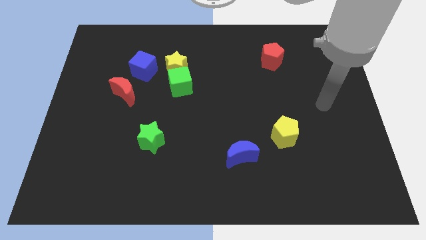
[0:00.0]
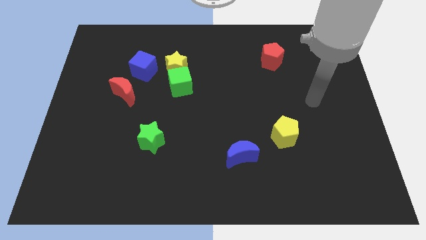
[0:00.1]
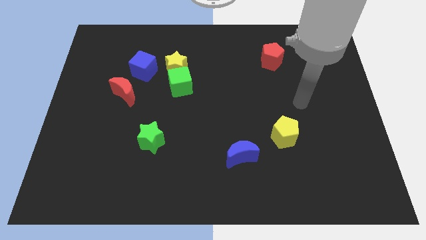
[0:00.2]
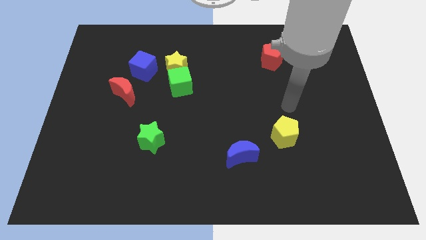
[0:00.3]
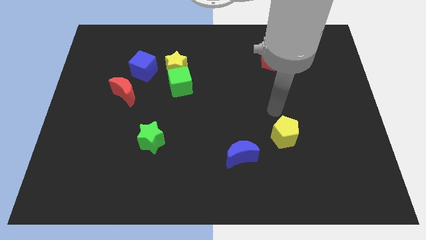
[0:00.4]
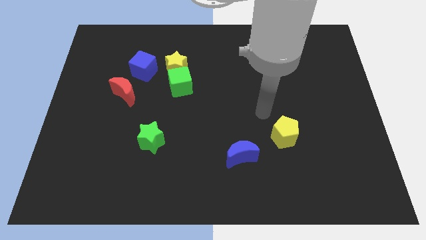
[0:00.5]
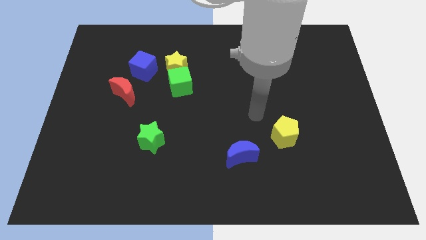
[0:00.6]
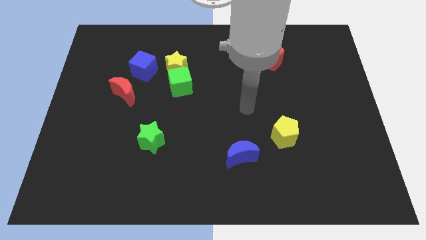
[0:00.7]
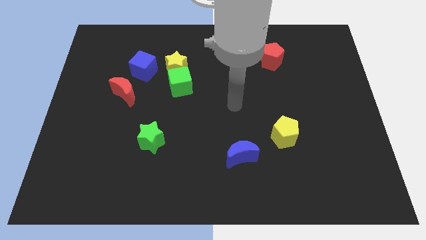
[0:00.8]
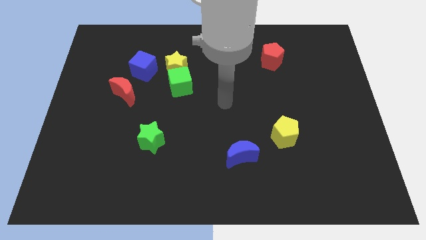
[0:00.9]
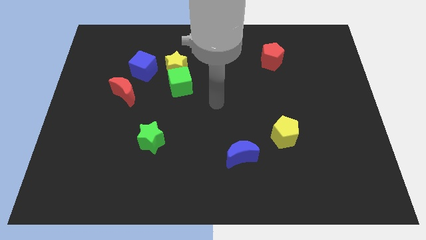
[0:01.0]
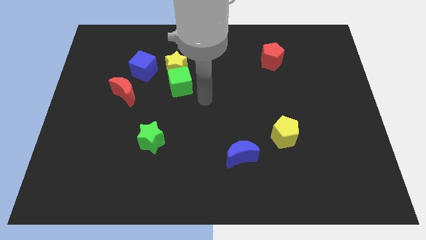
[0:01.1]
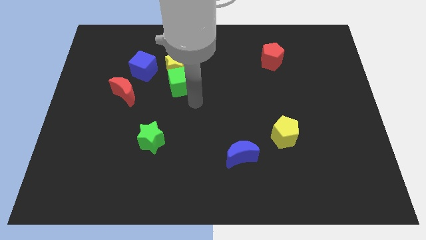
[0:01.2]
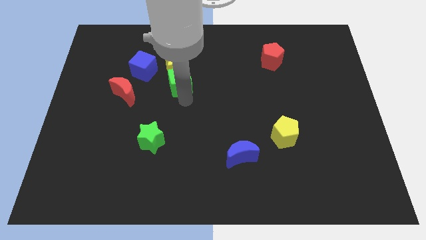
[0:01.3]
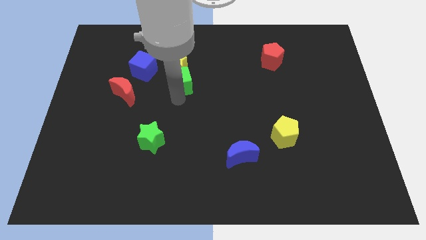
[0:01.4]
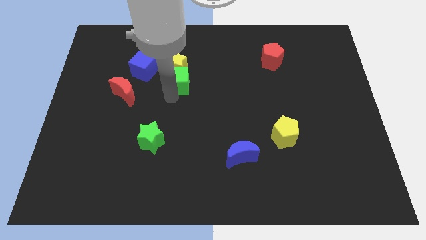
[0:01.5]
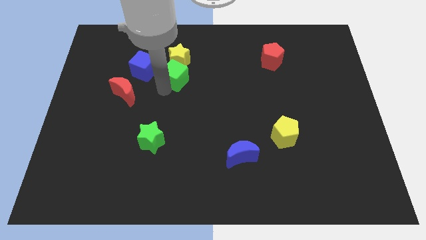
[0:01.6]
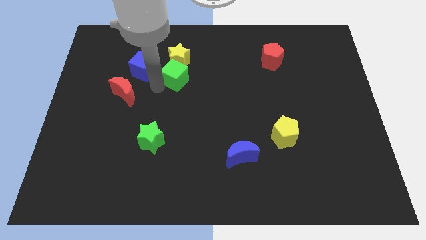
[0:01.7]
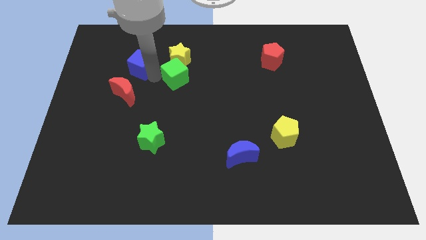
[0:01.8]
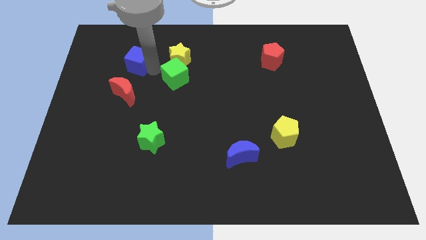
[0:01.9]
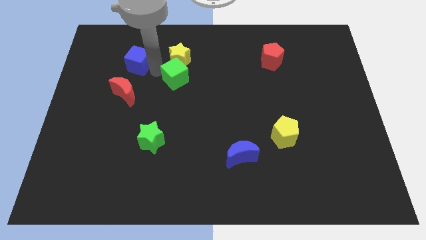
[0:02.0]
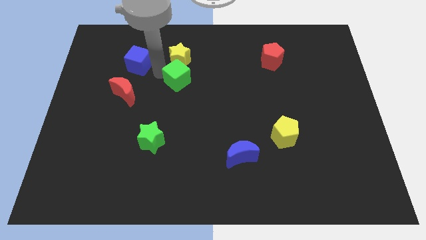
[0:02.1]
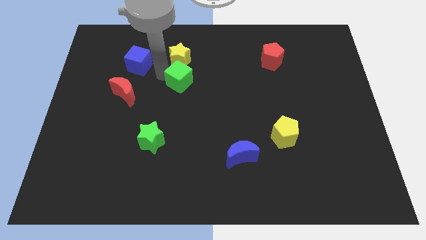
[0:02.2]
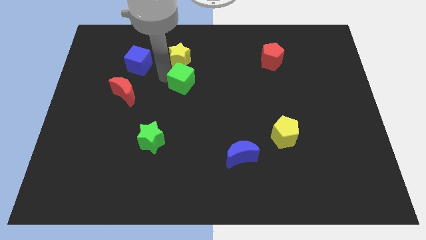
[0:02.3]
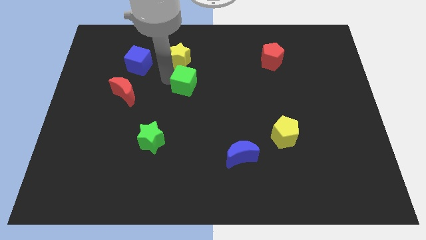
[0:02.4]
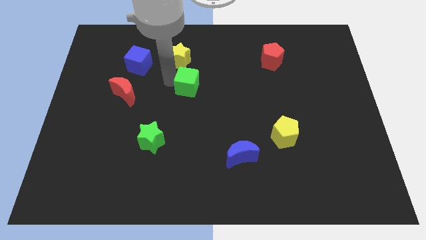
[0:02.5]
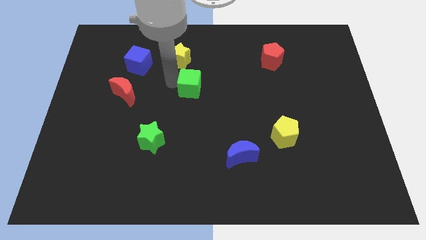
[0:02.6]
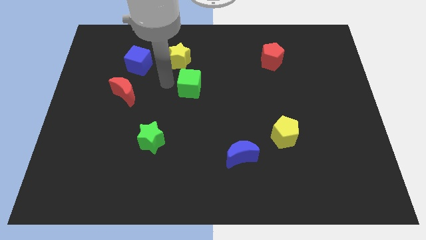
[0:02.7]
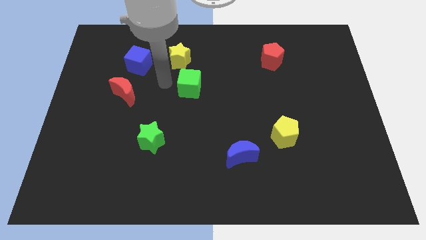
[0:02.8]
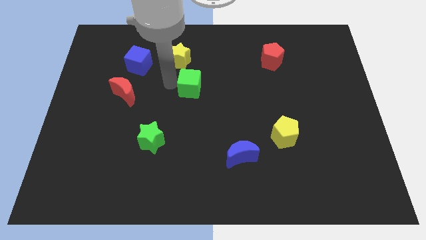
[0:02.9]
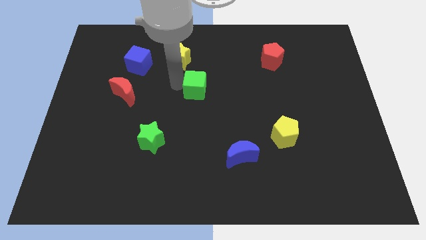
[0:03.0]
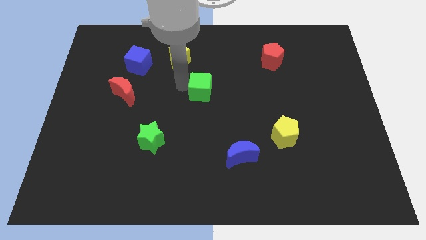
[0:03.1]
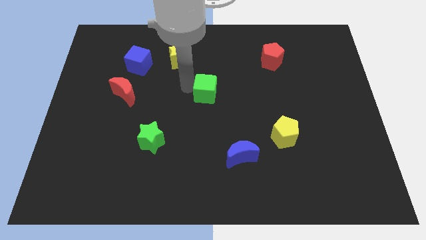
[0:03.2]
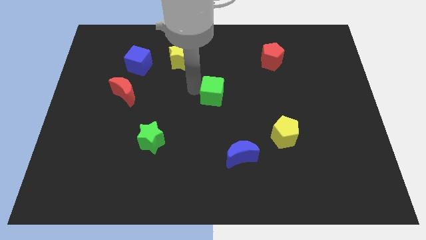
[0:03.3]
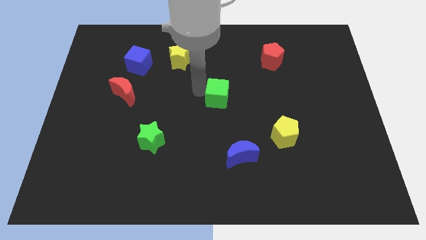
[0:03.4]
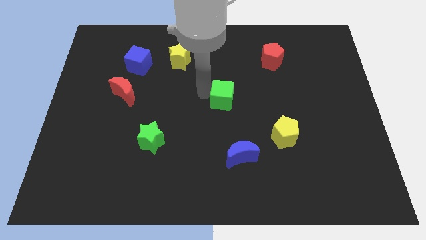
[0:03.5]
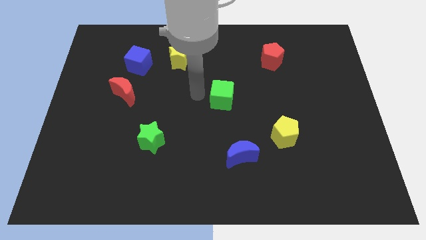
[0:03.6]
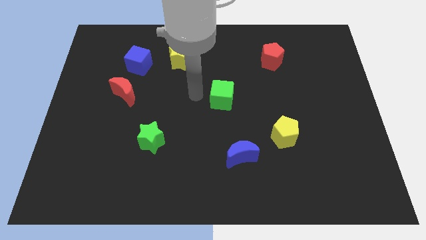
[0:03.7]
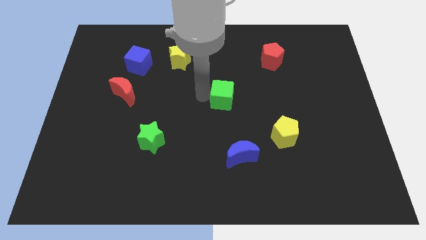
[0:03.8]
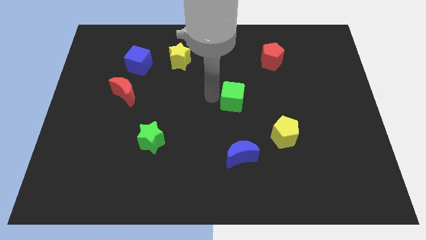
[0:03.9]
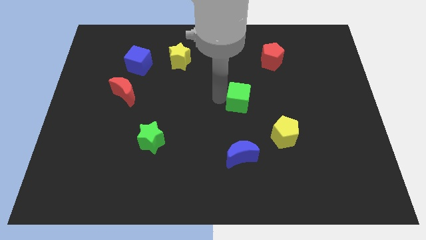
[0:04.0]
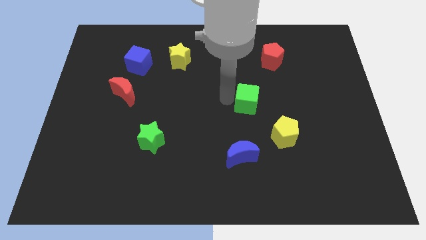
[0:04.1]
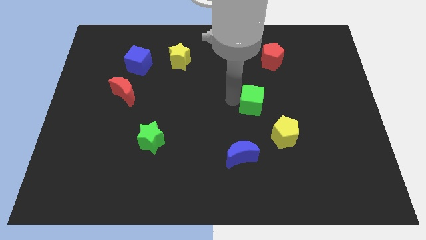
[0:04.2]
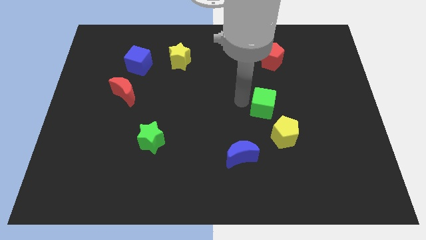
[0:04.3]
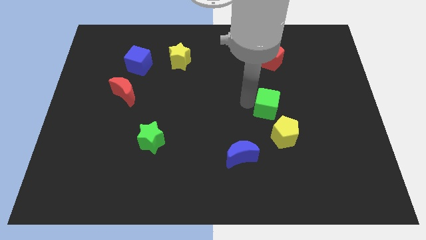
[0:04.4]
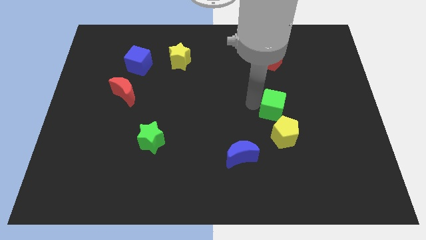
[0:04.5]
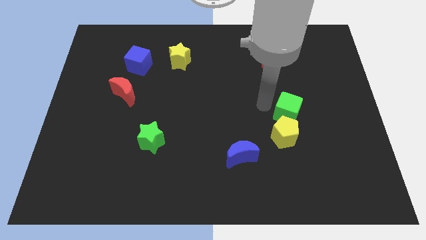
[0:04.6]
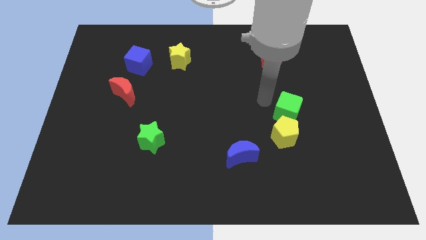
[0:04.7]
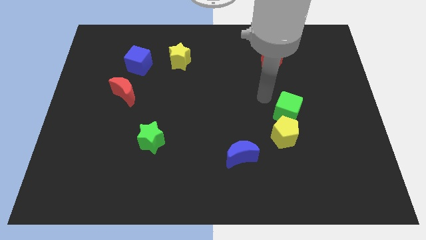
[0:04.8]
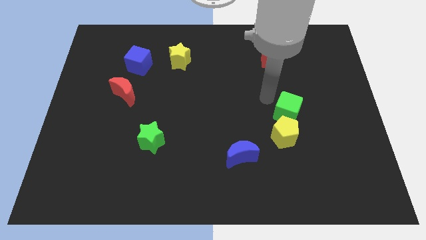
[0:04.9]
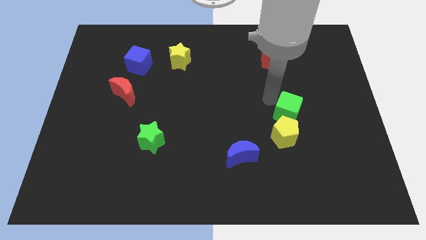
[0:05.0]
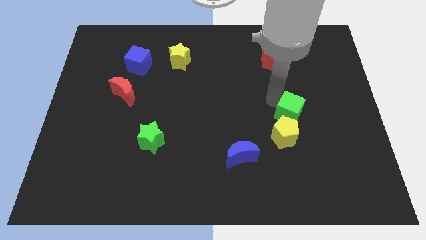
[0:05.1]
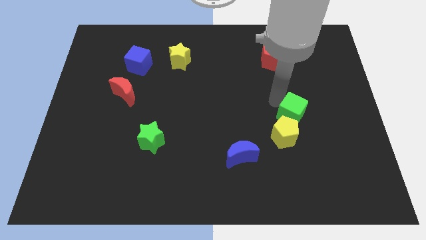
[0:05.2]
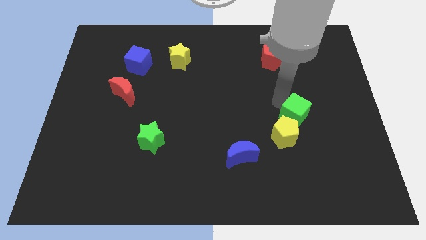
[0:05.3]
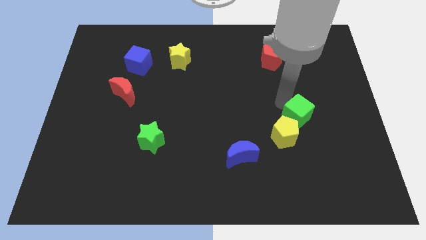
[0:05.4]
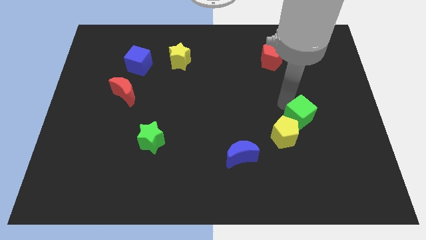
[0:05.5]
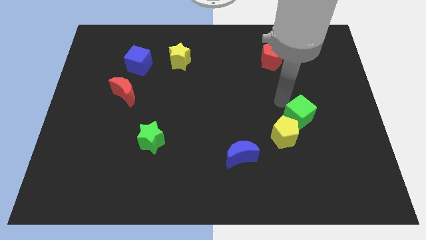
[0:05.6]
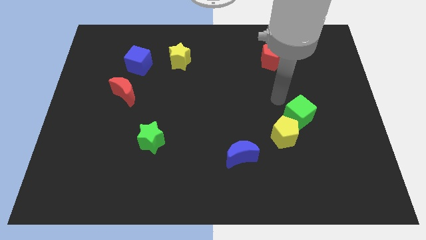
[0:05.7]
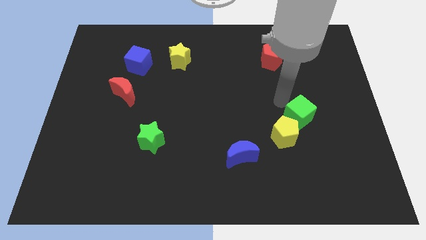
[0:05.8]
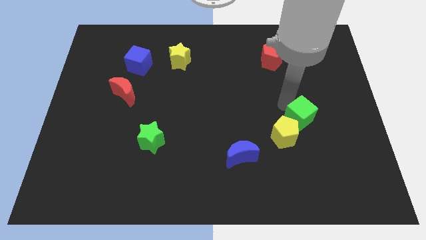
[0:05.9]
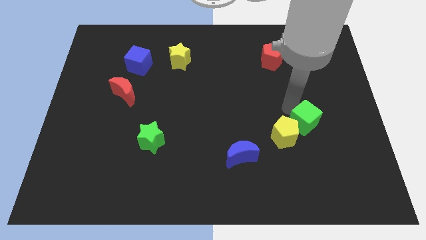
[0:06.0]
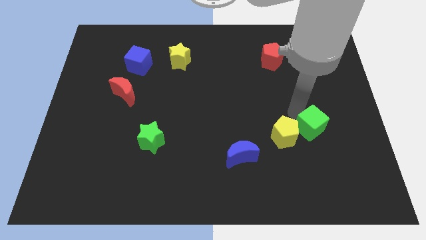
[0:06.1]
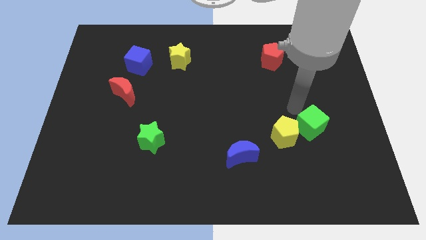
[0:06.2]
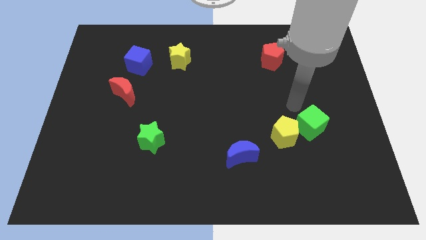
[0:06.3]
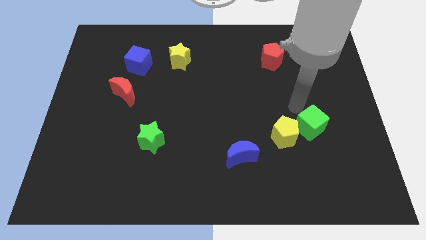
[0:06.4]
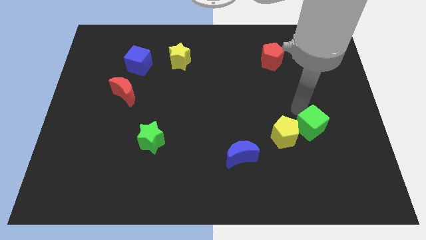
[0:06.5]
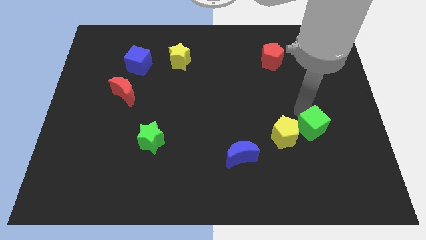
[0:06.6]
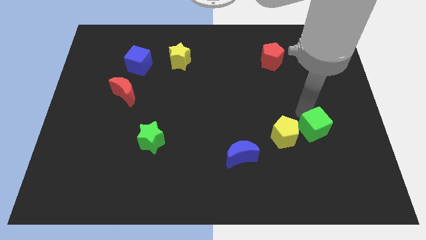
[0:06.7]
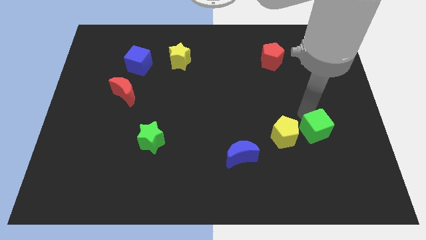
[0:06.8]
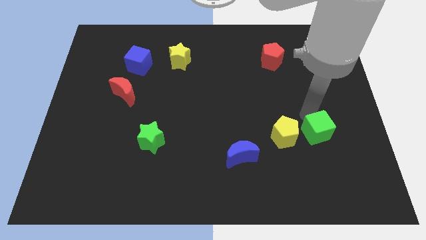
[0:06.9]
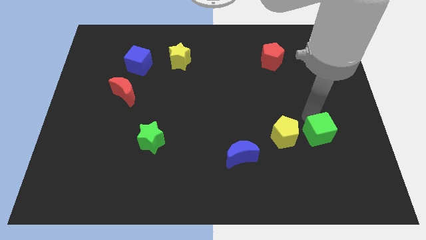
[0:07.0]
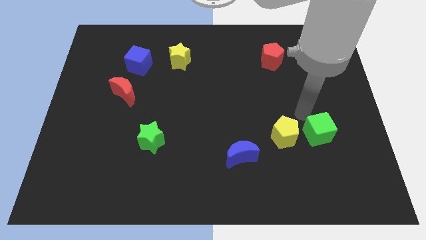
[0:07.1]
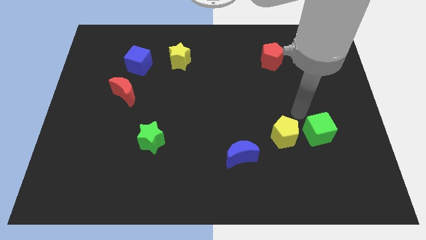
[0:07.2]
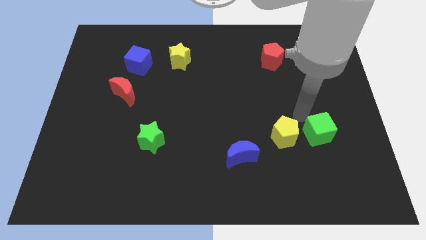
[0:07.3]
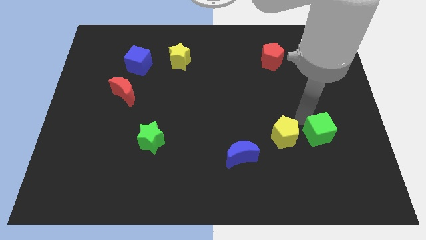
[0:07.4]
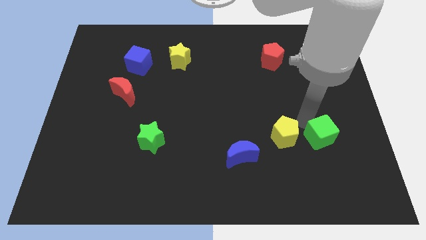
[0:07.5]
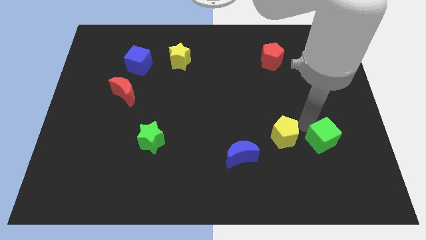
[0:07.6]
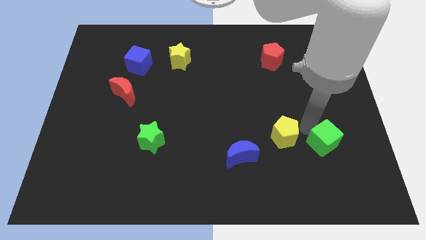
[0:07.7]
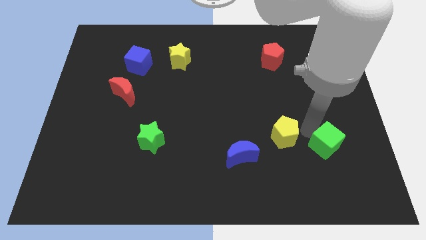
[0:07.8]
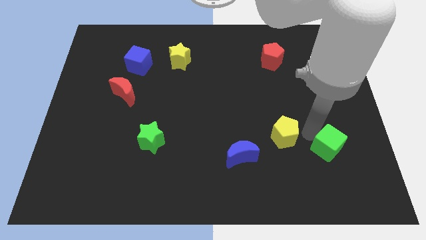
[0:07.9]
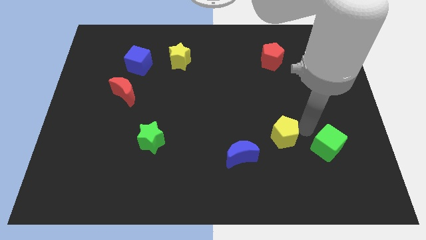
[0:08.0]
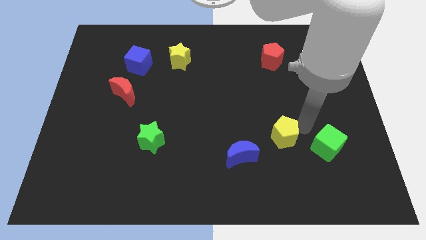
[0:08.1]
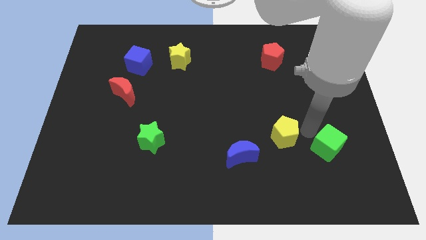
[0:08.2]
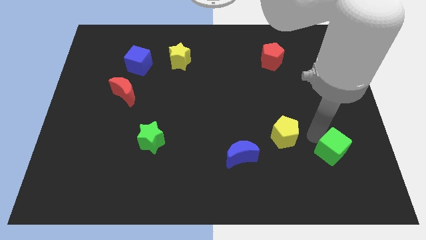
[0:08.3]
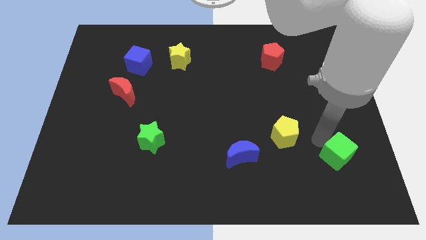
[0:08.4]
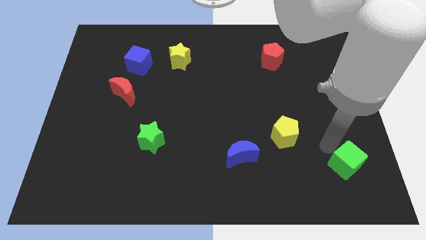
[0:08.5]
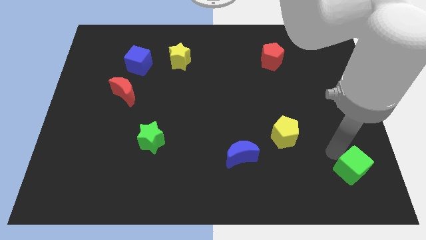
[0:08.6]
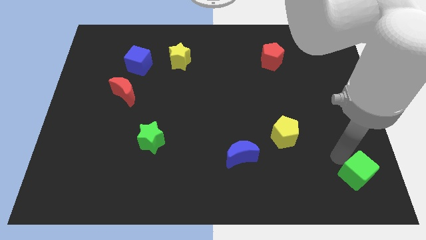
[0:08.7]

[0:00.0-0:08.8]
move the green cube to the lower right corner
